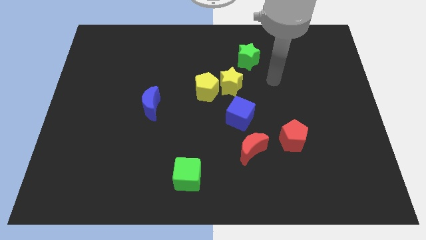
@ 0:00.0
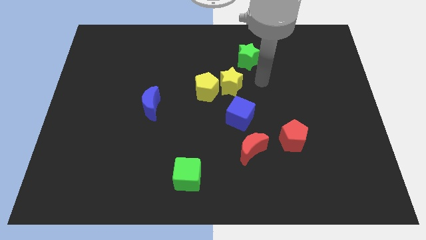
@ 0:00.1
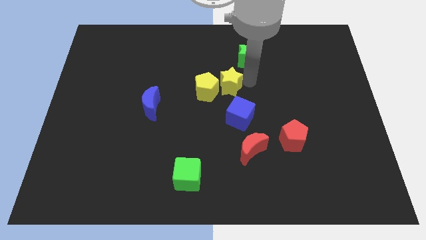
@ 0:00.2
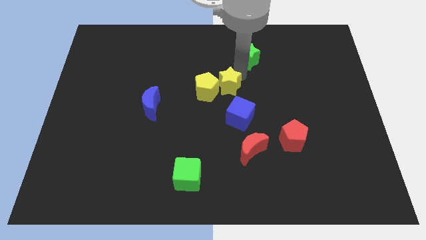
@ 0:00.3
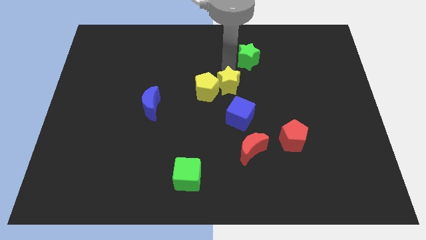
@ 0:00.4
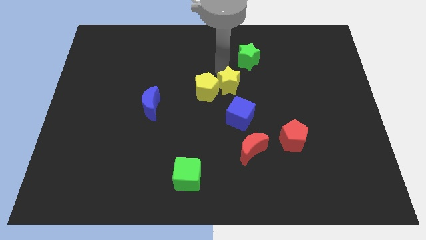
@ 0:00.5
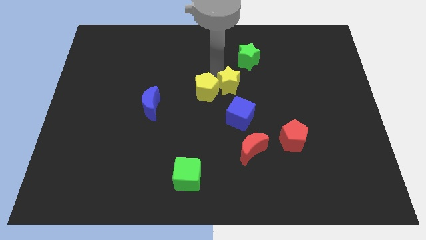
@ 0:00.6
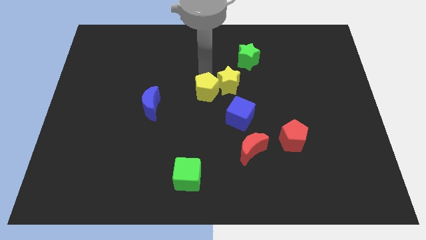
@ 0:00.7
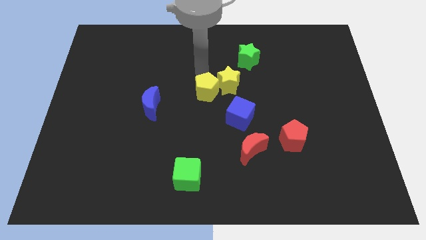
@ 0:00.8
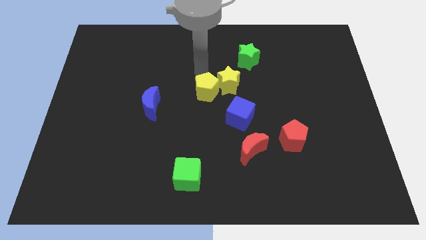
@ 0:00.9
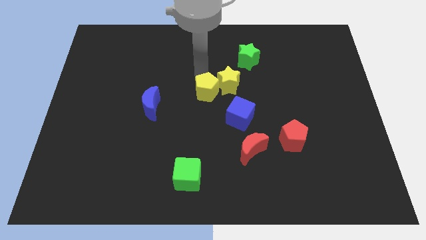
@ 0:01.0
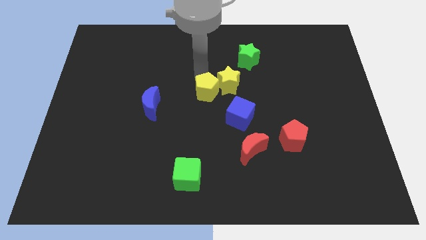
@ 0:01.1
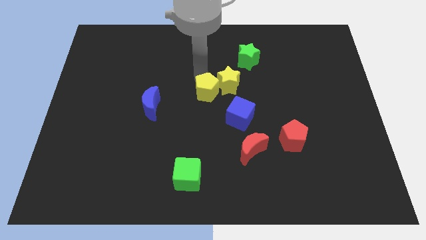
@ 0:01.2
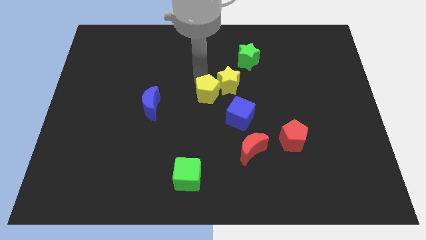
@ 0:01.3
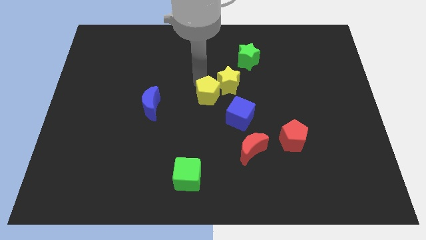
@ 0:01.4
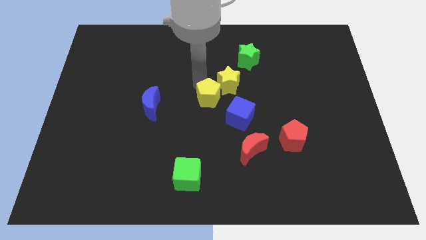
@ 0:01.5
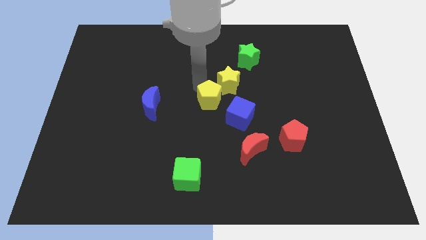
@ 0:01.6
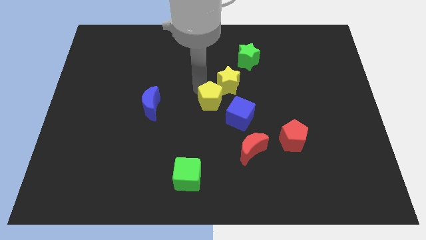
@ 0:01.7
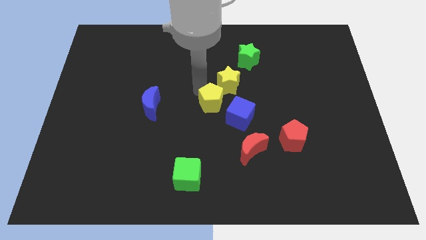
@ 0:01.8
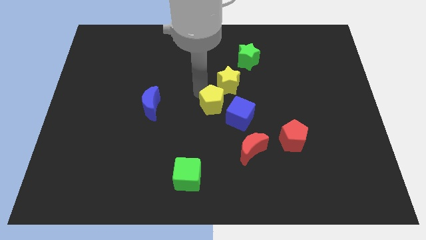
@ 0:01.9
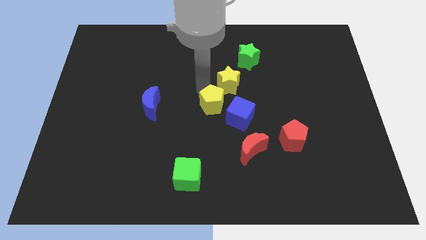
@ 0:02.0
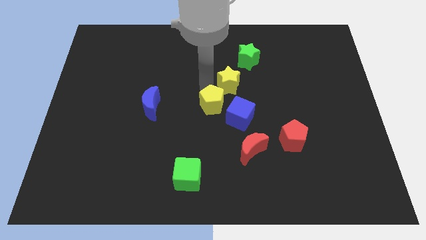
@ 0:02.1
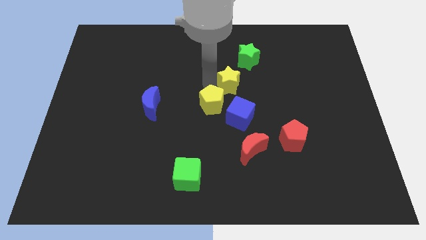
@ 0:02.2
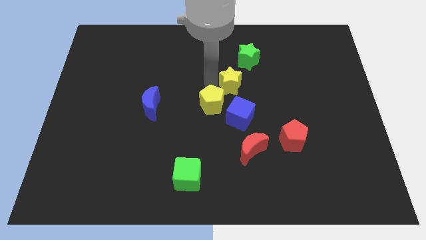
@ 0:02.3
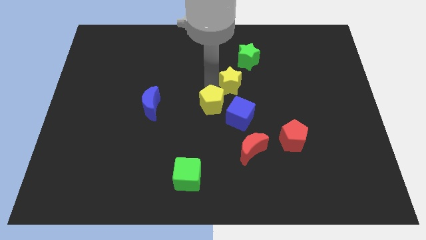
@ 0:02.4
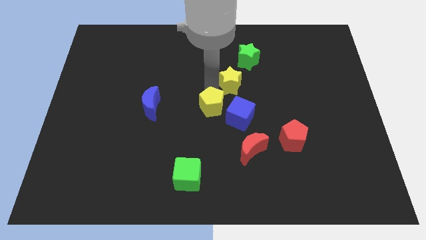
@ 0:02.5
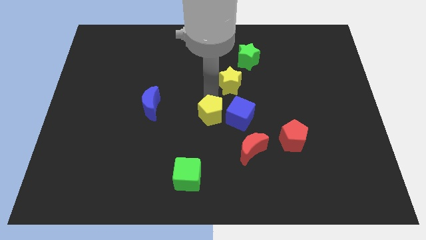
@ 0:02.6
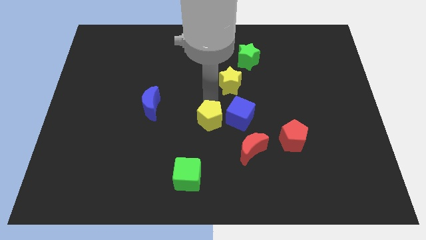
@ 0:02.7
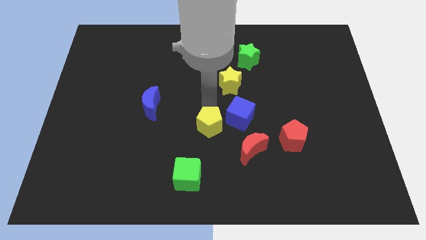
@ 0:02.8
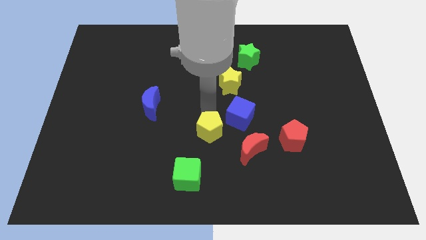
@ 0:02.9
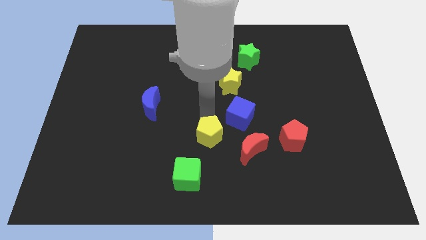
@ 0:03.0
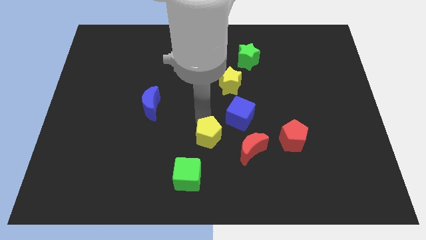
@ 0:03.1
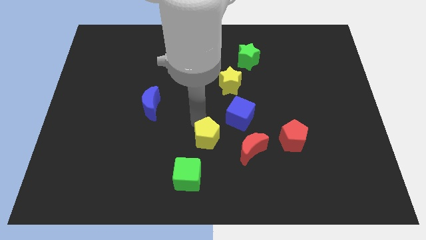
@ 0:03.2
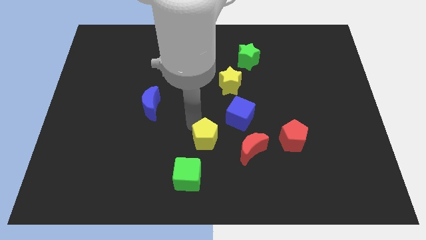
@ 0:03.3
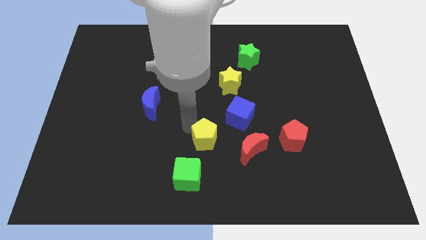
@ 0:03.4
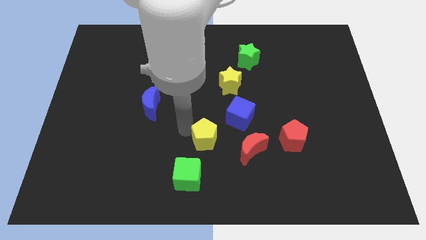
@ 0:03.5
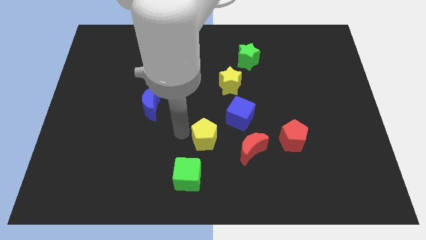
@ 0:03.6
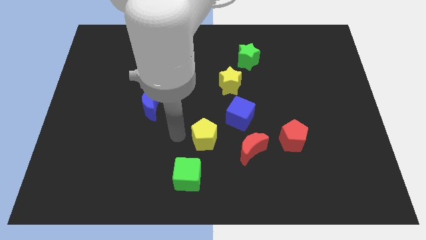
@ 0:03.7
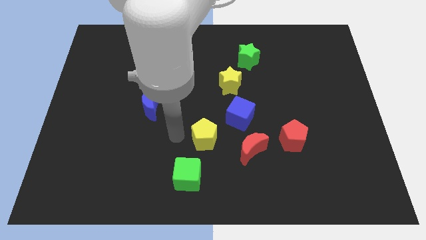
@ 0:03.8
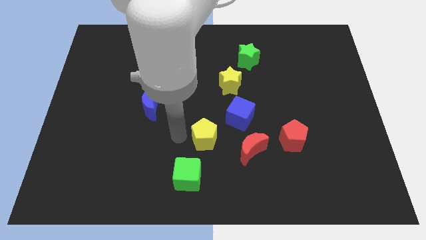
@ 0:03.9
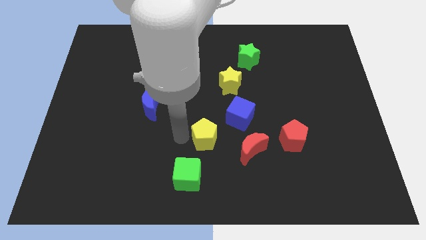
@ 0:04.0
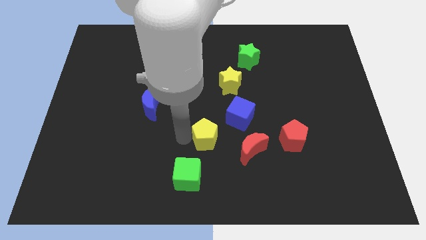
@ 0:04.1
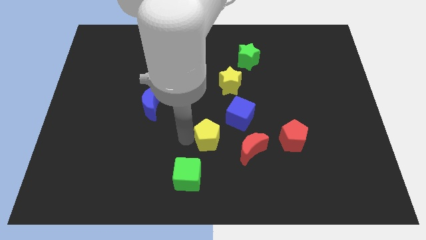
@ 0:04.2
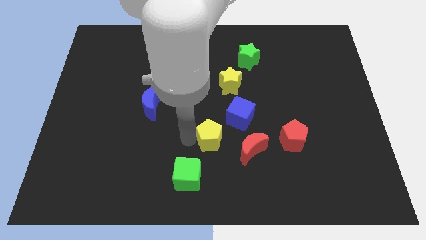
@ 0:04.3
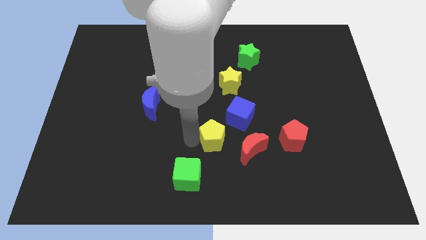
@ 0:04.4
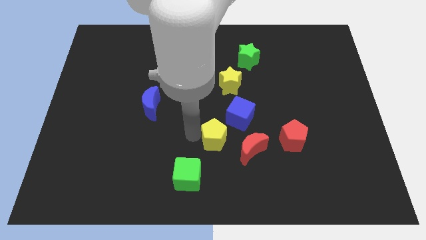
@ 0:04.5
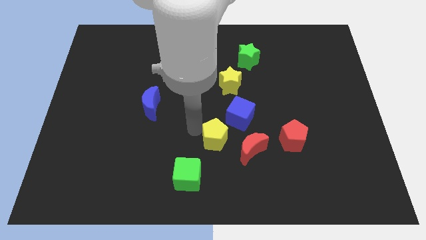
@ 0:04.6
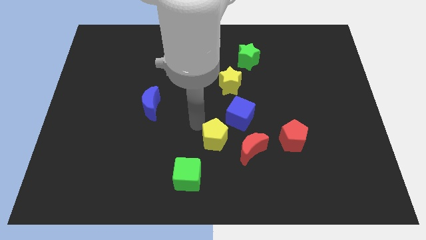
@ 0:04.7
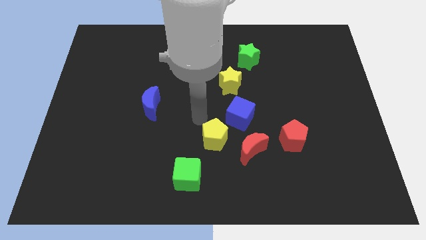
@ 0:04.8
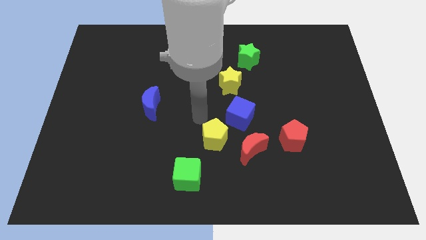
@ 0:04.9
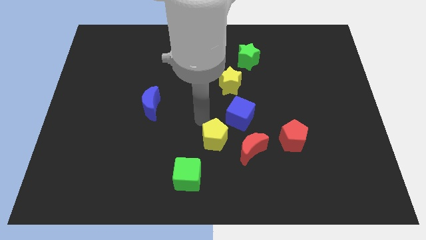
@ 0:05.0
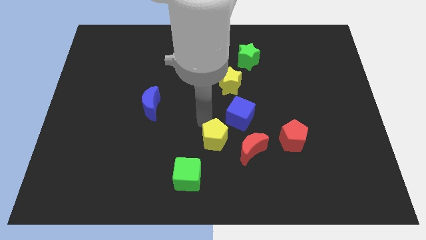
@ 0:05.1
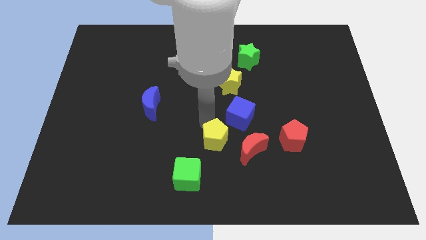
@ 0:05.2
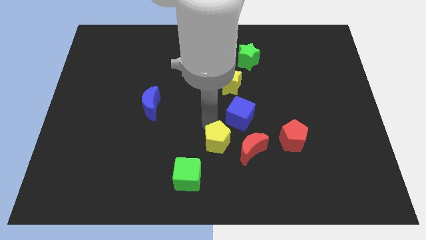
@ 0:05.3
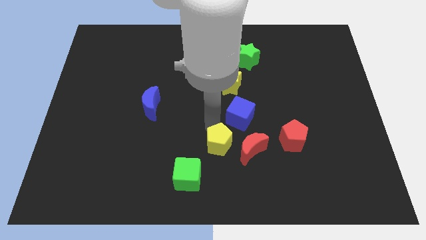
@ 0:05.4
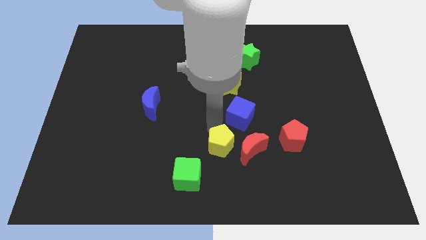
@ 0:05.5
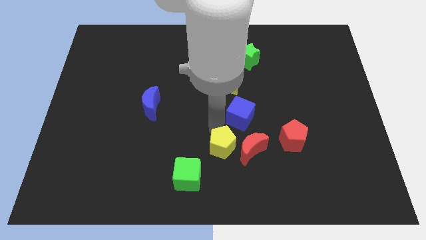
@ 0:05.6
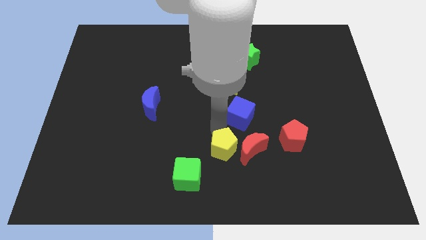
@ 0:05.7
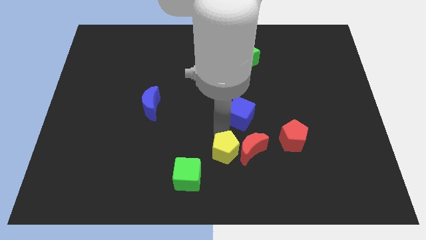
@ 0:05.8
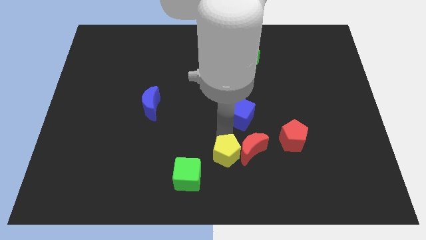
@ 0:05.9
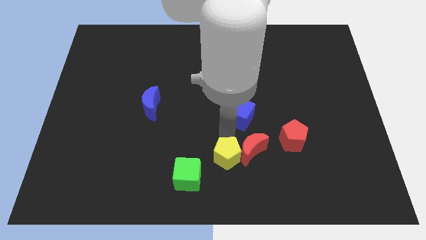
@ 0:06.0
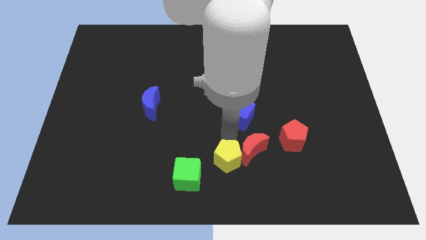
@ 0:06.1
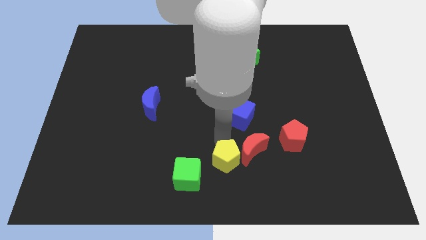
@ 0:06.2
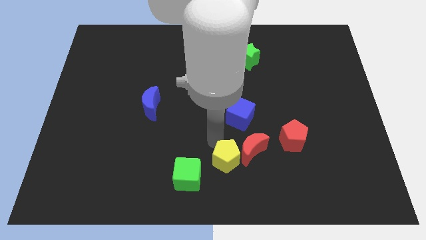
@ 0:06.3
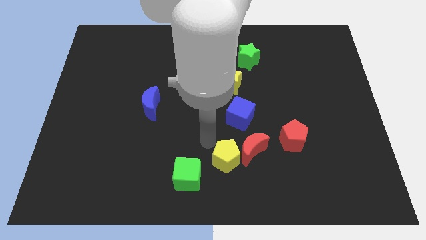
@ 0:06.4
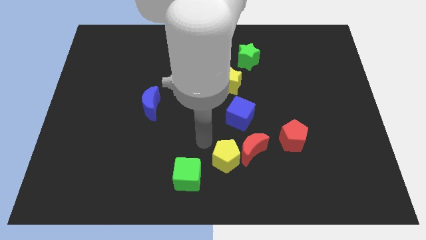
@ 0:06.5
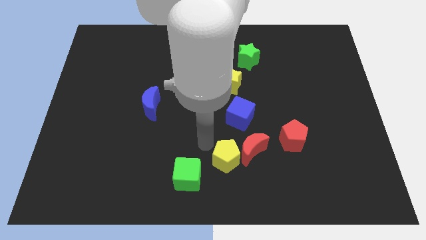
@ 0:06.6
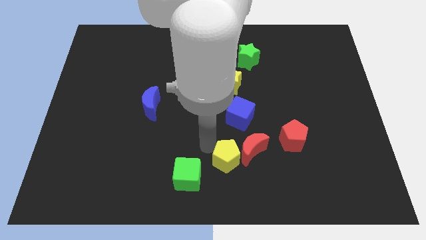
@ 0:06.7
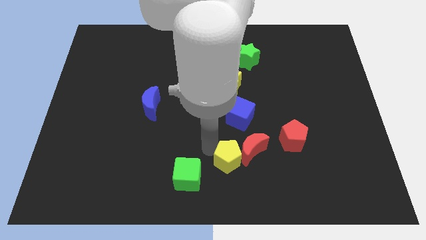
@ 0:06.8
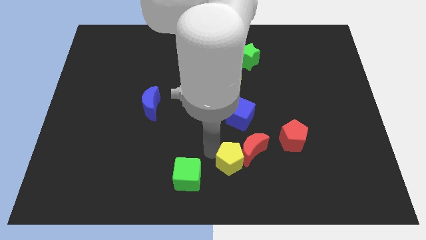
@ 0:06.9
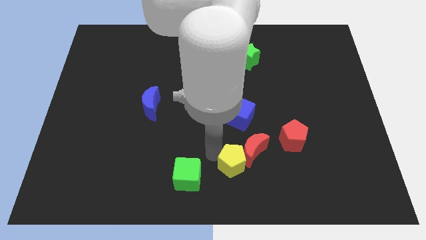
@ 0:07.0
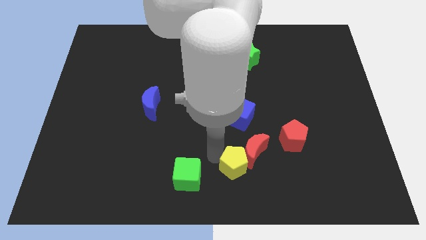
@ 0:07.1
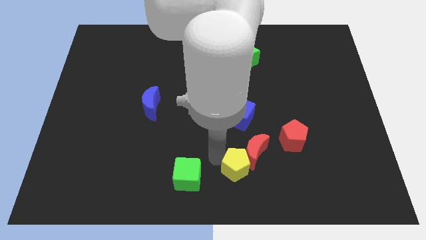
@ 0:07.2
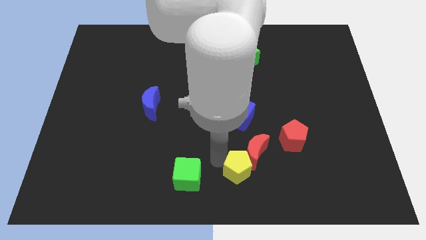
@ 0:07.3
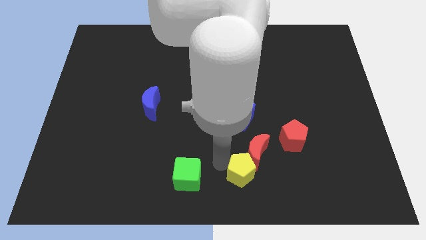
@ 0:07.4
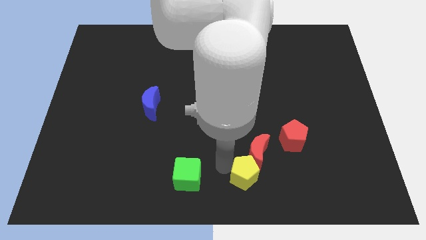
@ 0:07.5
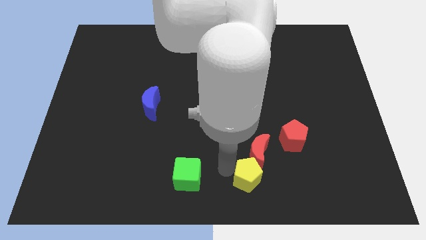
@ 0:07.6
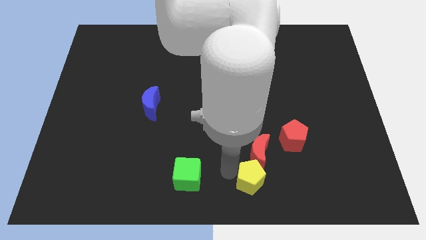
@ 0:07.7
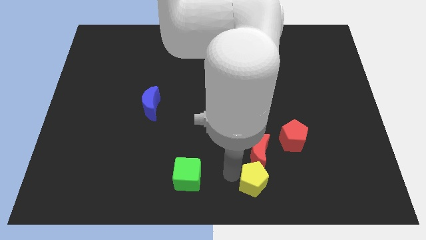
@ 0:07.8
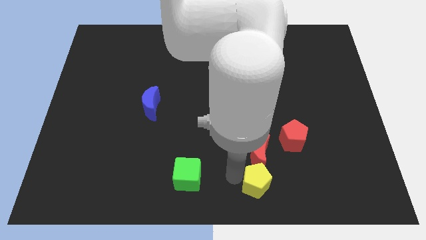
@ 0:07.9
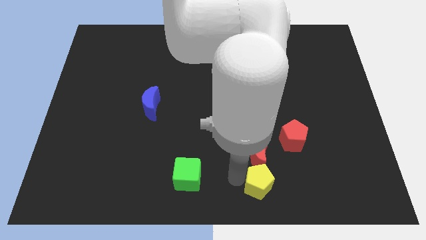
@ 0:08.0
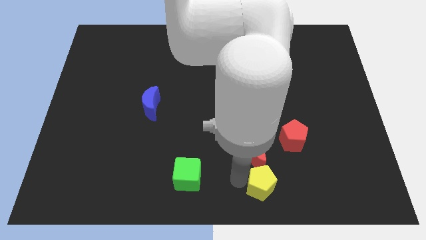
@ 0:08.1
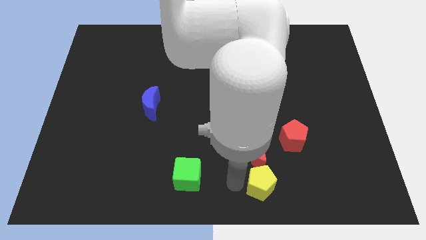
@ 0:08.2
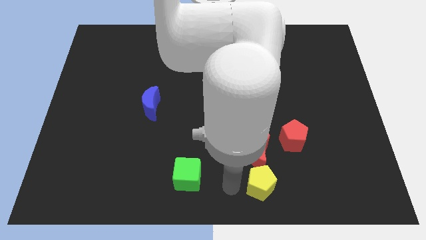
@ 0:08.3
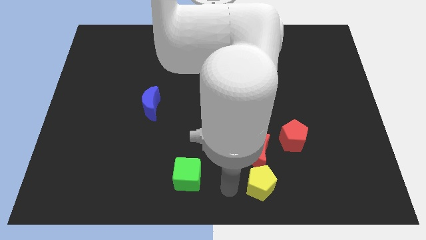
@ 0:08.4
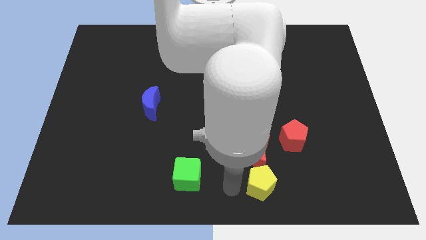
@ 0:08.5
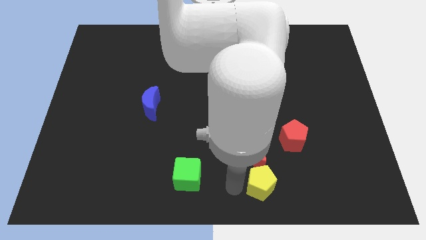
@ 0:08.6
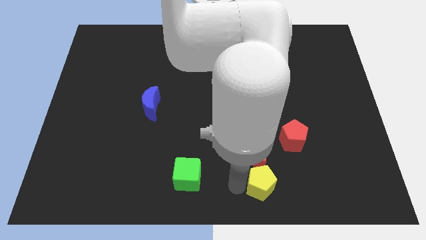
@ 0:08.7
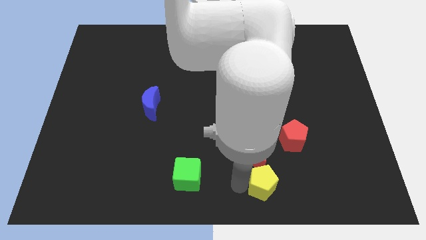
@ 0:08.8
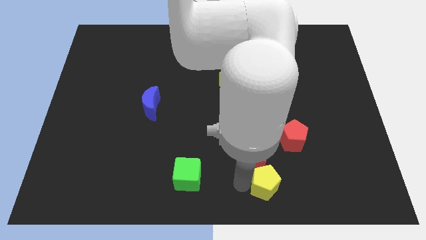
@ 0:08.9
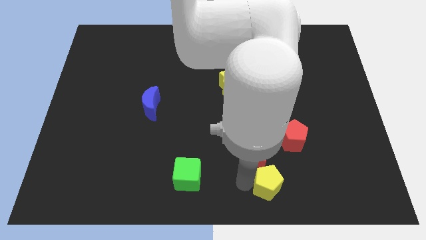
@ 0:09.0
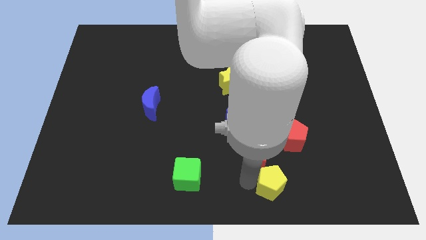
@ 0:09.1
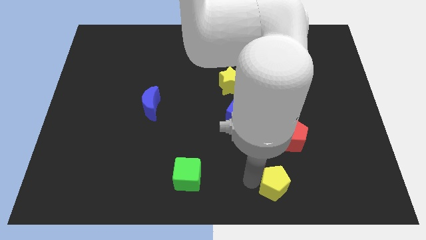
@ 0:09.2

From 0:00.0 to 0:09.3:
put the yellow pentagon below the red pentagon
